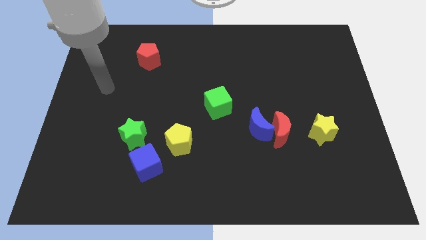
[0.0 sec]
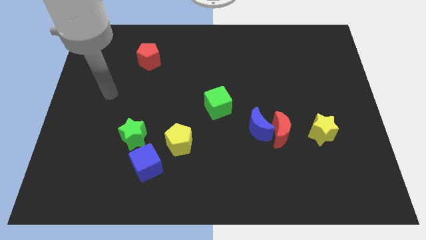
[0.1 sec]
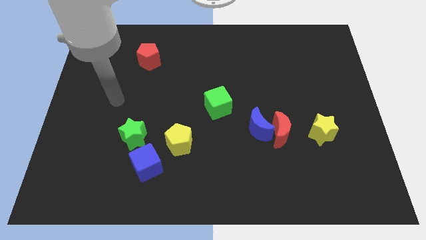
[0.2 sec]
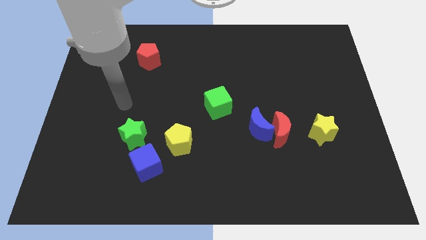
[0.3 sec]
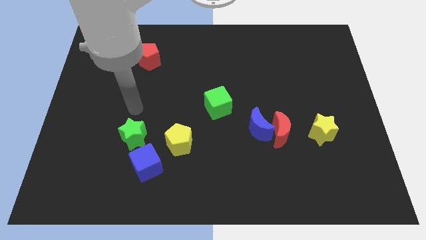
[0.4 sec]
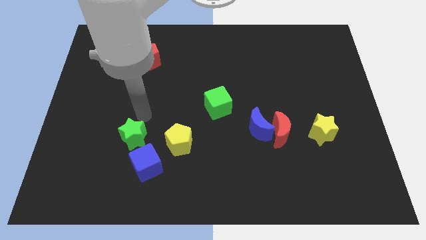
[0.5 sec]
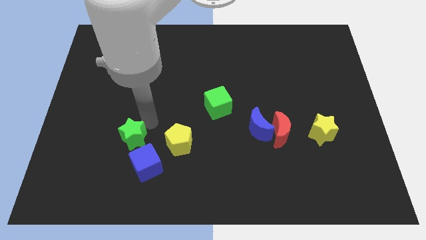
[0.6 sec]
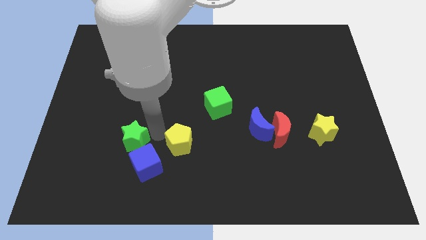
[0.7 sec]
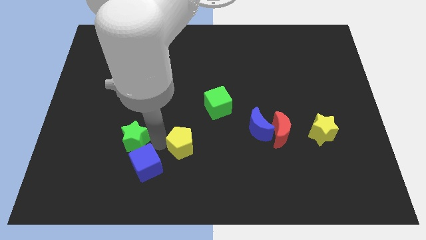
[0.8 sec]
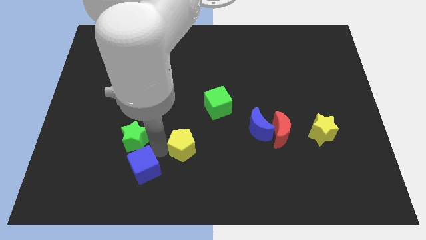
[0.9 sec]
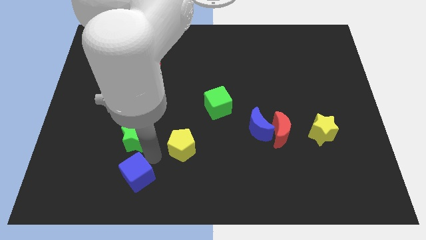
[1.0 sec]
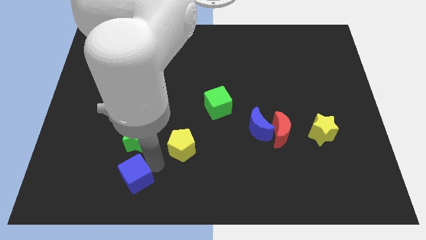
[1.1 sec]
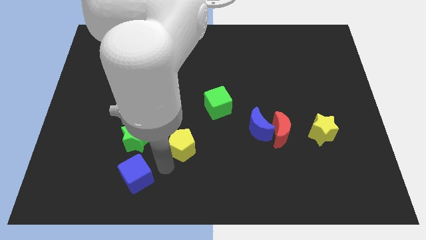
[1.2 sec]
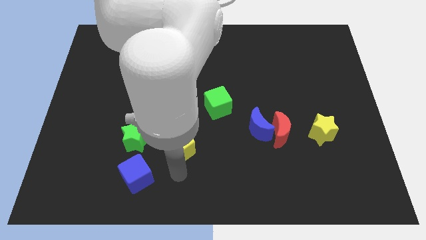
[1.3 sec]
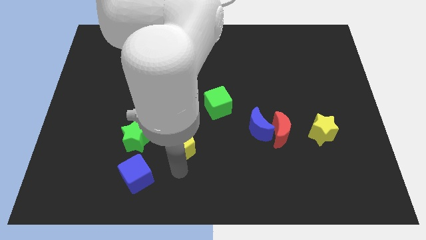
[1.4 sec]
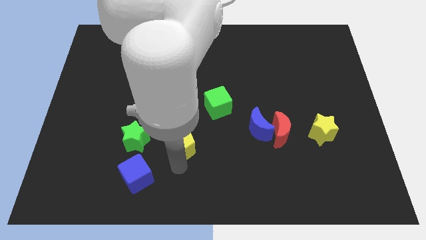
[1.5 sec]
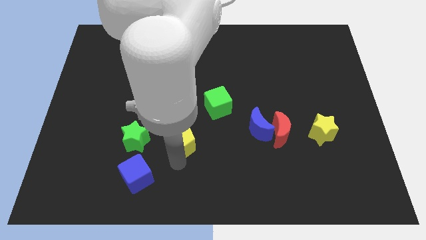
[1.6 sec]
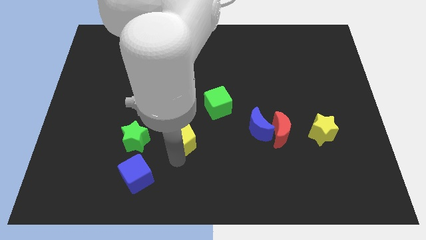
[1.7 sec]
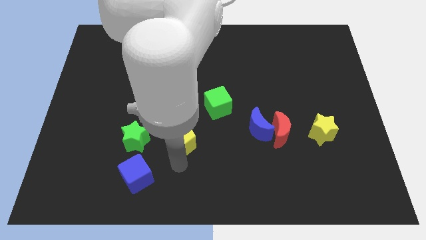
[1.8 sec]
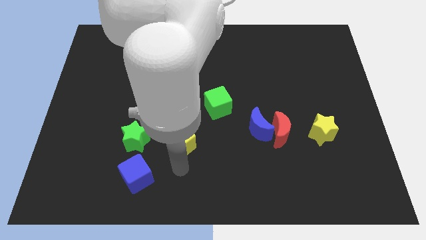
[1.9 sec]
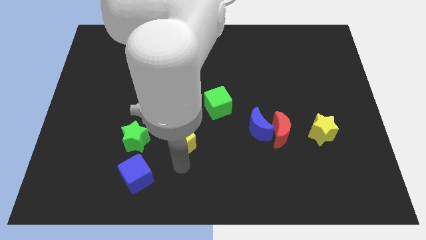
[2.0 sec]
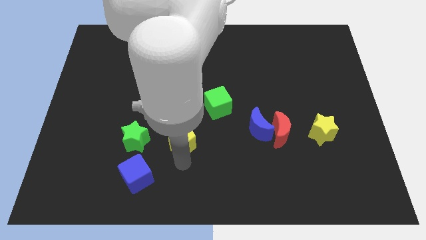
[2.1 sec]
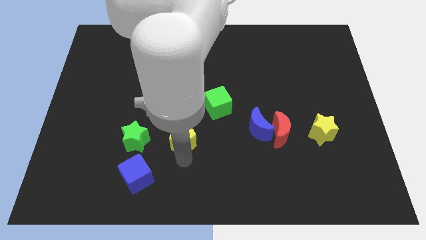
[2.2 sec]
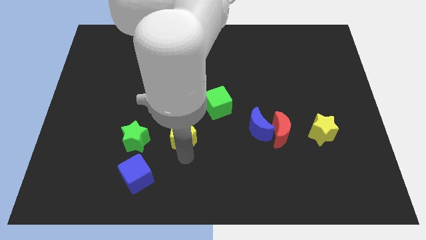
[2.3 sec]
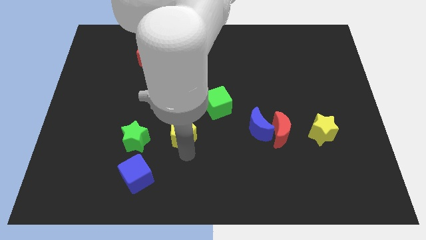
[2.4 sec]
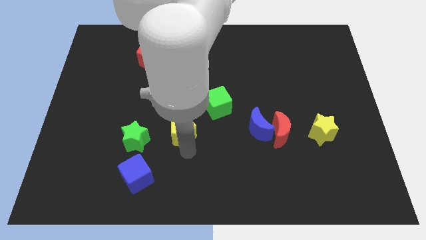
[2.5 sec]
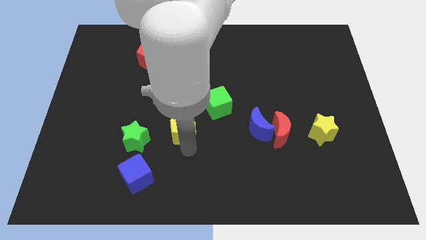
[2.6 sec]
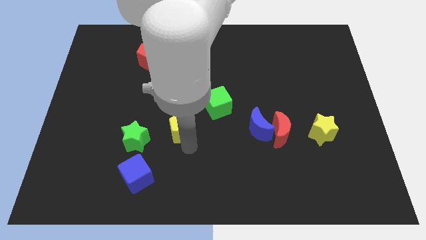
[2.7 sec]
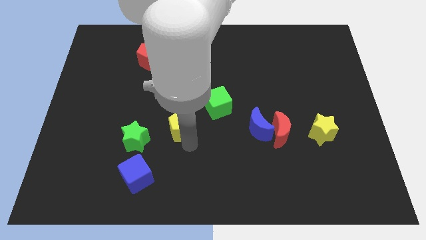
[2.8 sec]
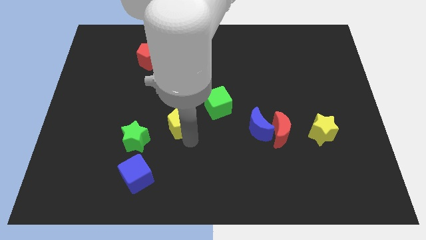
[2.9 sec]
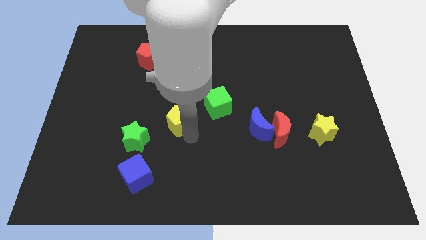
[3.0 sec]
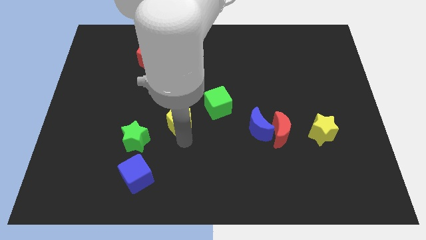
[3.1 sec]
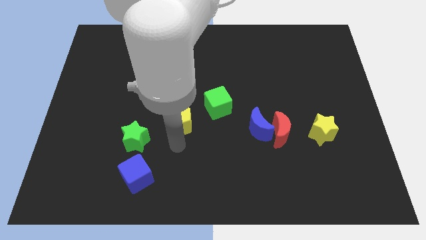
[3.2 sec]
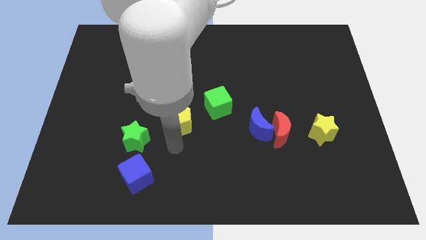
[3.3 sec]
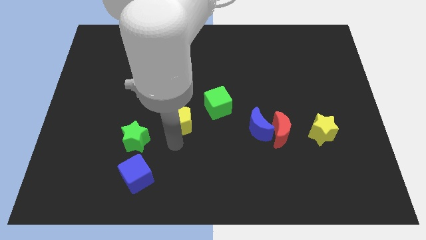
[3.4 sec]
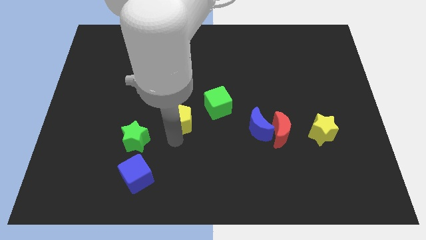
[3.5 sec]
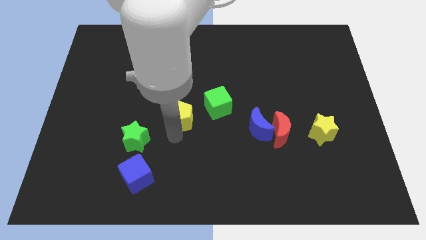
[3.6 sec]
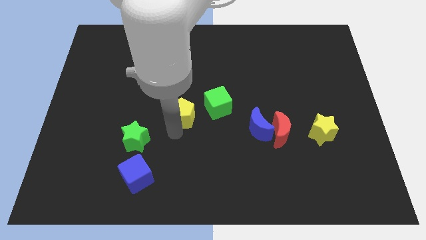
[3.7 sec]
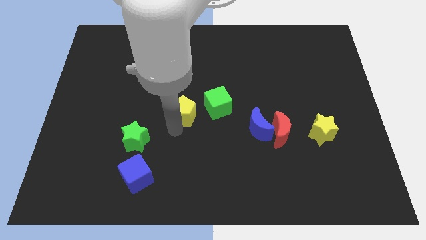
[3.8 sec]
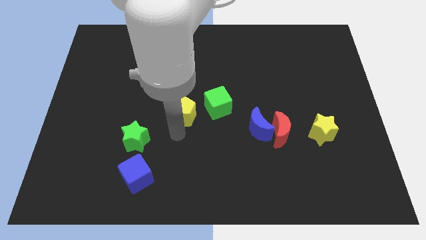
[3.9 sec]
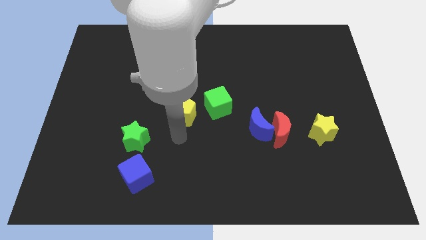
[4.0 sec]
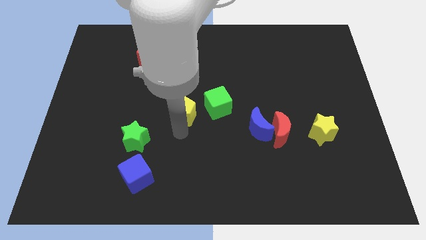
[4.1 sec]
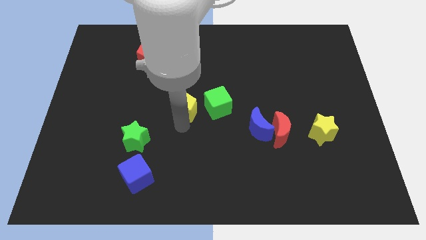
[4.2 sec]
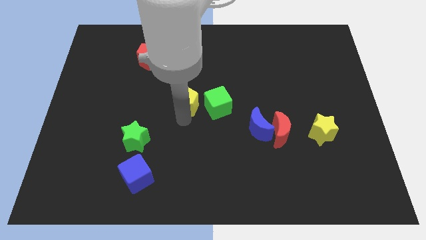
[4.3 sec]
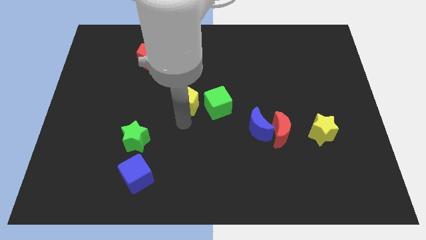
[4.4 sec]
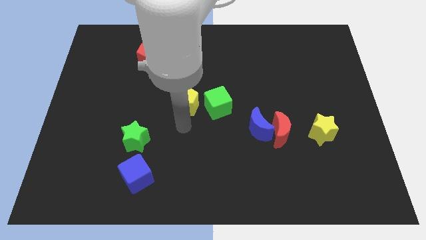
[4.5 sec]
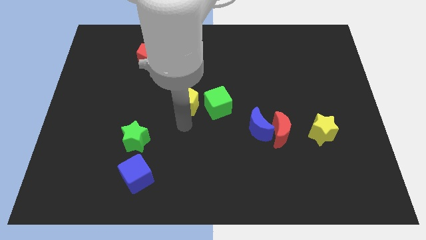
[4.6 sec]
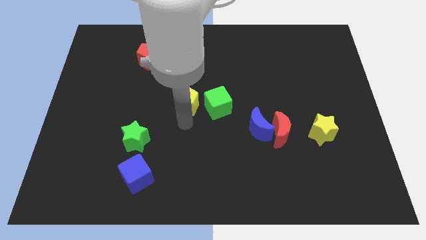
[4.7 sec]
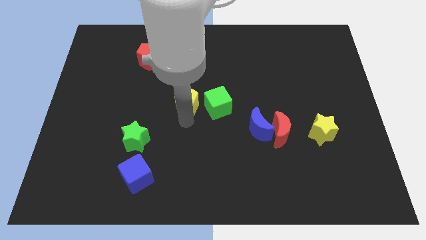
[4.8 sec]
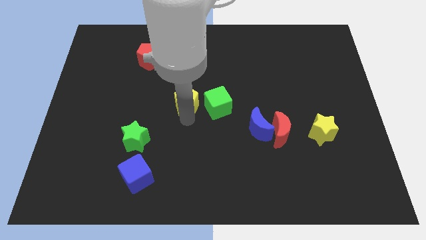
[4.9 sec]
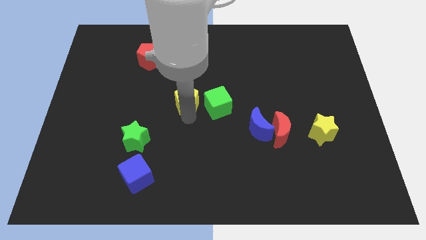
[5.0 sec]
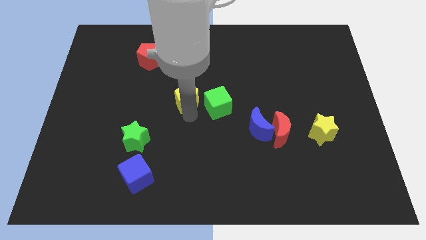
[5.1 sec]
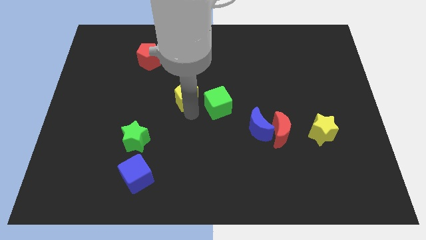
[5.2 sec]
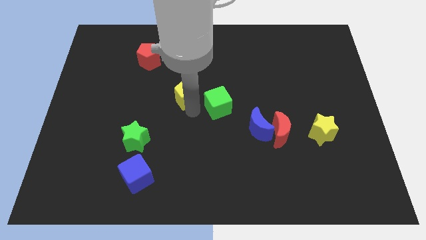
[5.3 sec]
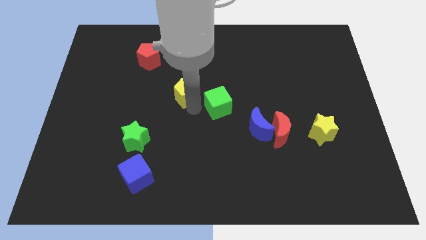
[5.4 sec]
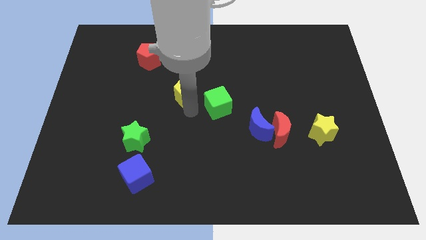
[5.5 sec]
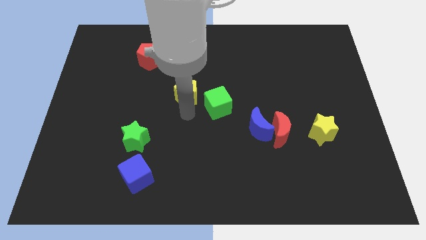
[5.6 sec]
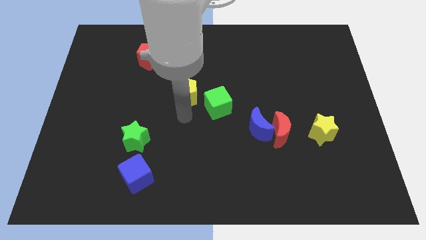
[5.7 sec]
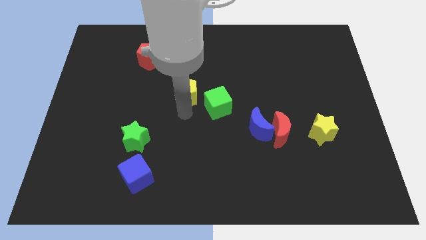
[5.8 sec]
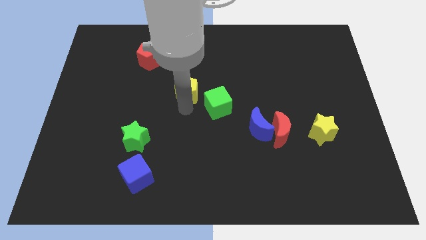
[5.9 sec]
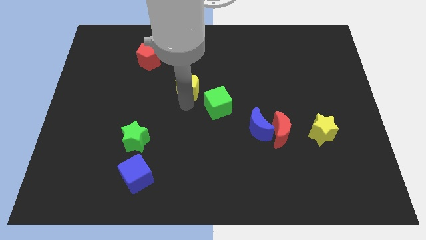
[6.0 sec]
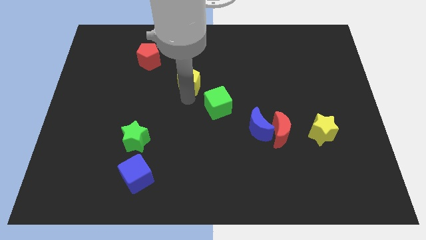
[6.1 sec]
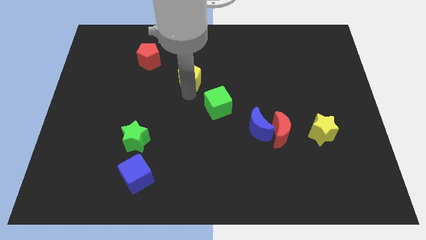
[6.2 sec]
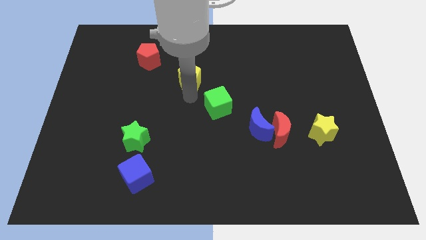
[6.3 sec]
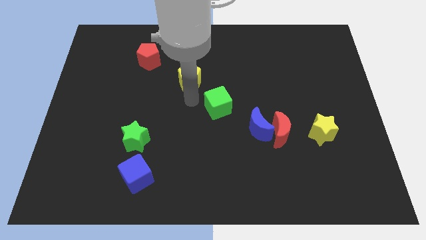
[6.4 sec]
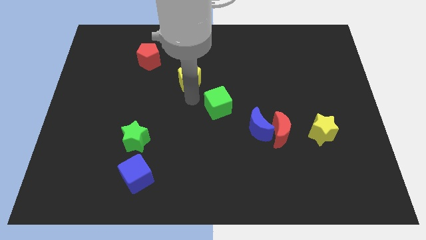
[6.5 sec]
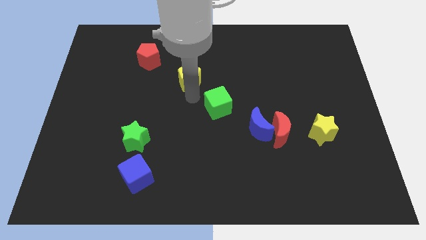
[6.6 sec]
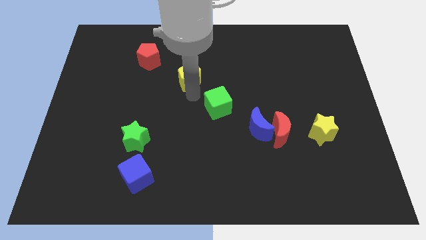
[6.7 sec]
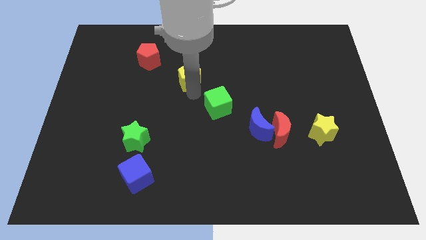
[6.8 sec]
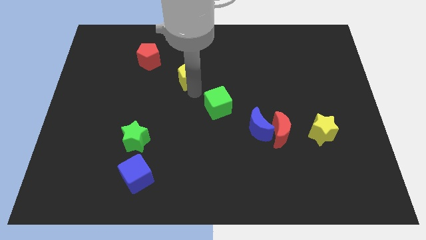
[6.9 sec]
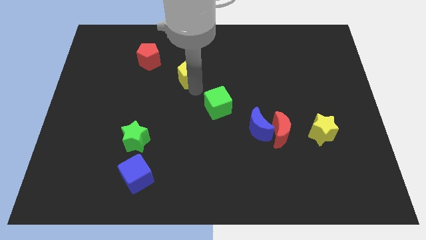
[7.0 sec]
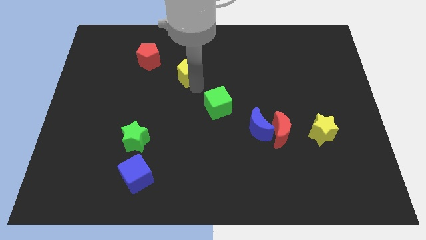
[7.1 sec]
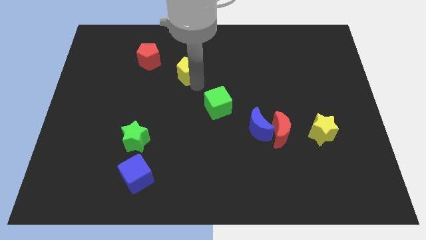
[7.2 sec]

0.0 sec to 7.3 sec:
put the yellow pentagon to the right of the red pentagon
